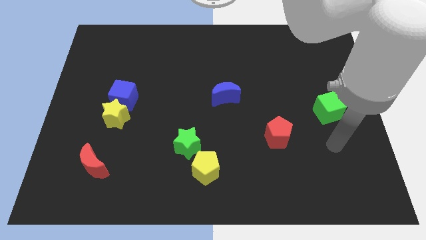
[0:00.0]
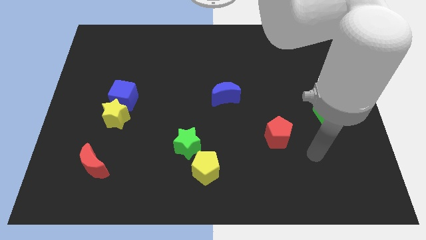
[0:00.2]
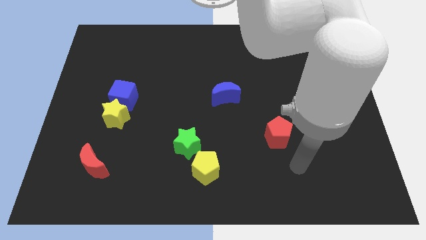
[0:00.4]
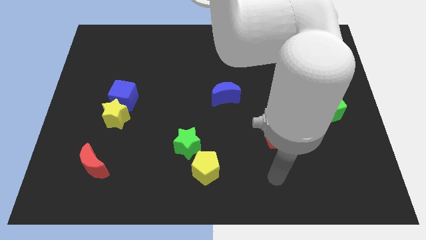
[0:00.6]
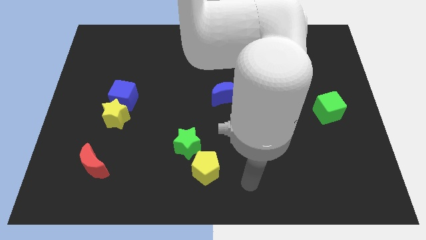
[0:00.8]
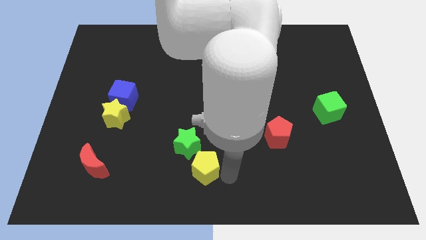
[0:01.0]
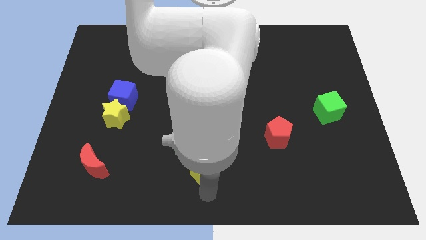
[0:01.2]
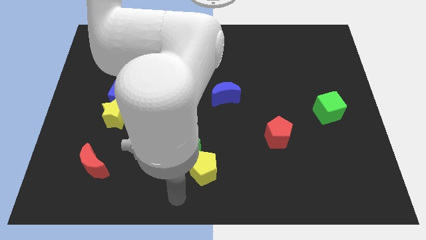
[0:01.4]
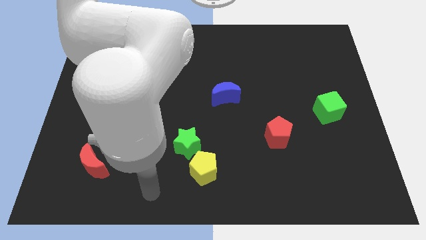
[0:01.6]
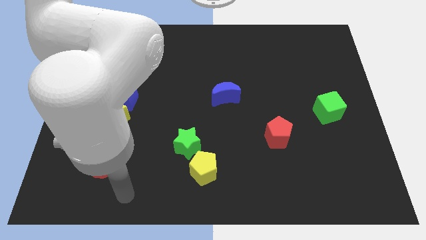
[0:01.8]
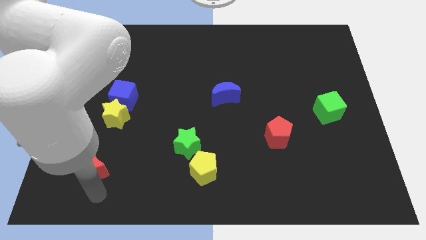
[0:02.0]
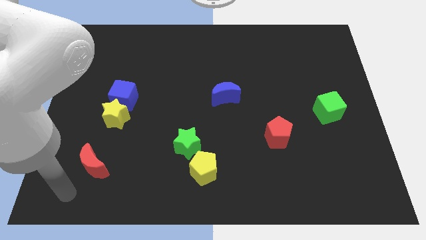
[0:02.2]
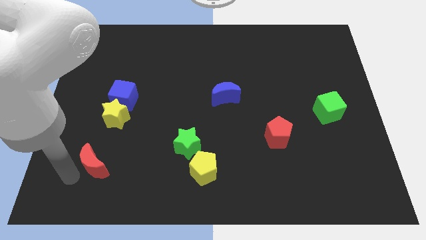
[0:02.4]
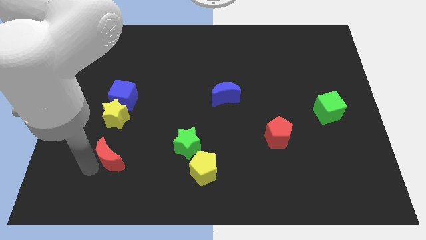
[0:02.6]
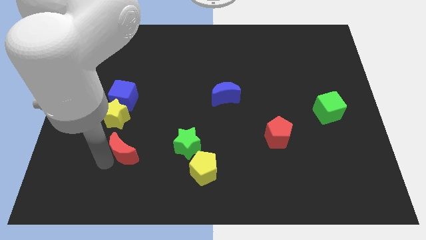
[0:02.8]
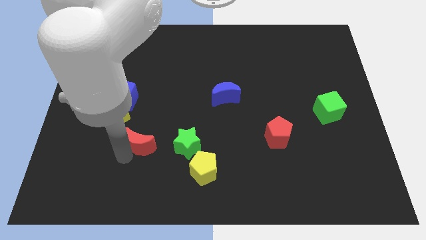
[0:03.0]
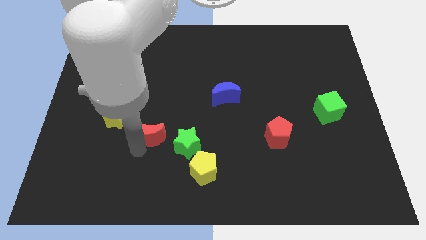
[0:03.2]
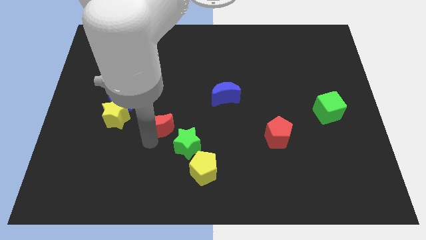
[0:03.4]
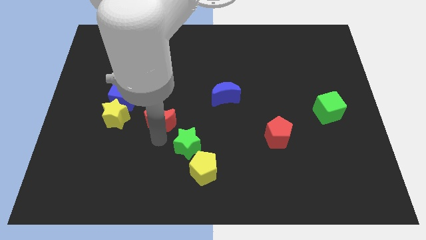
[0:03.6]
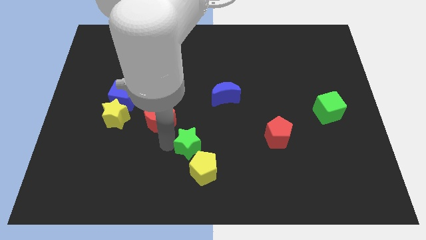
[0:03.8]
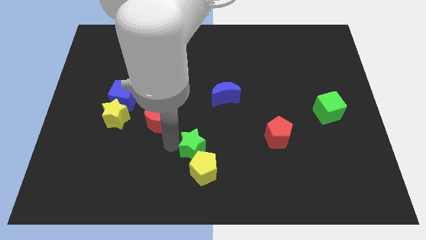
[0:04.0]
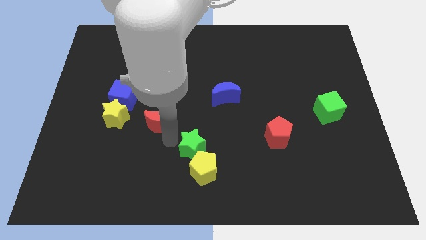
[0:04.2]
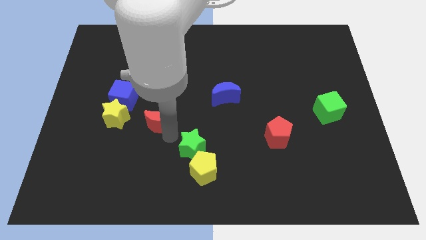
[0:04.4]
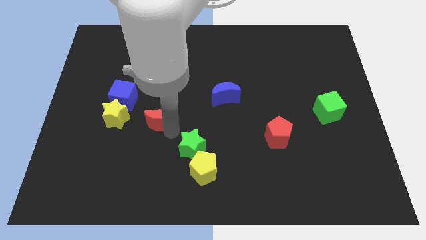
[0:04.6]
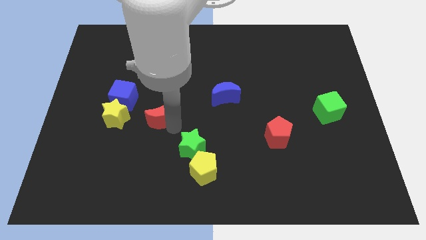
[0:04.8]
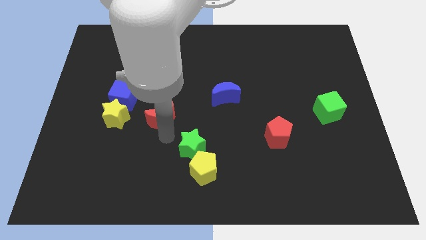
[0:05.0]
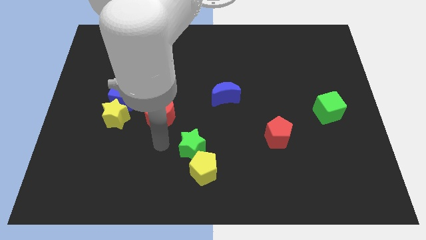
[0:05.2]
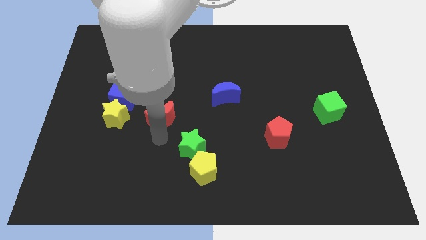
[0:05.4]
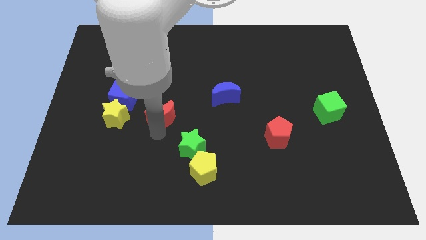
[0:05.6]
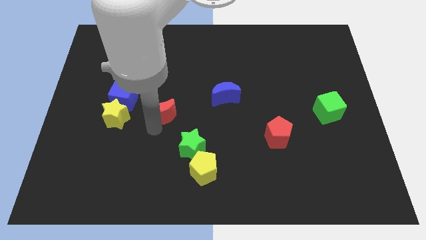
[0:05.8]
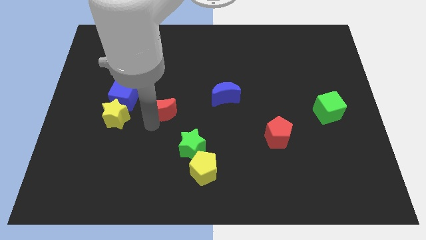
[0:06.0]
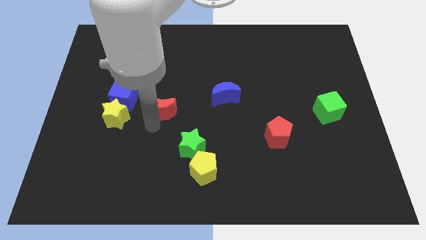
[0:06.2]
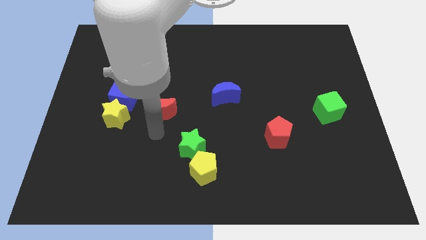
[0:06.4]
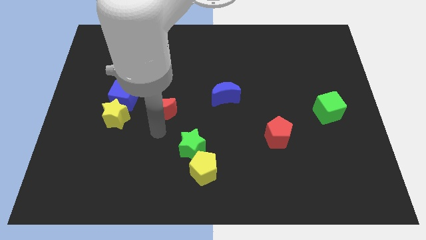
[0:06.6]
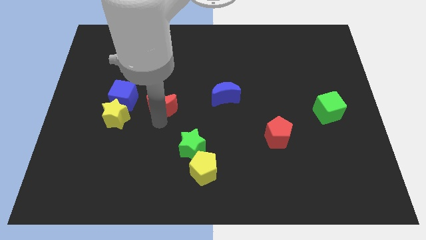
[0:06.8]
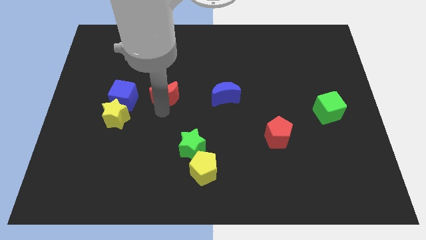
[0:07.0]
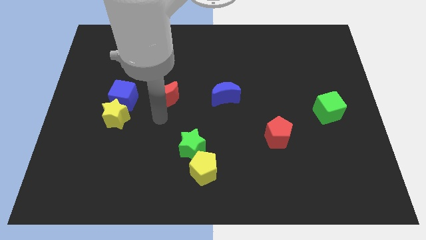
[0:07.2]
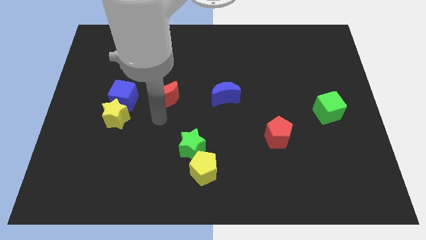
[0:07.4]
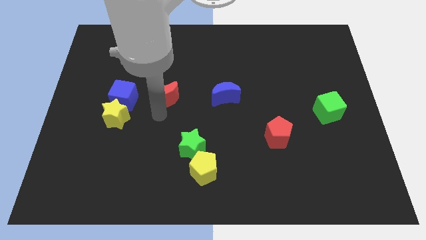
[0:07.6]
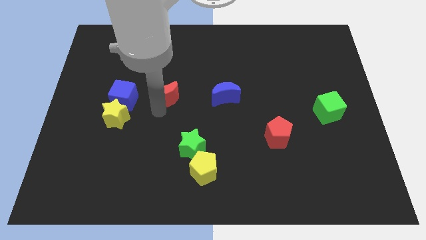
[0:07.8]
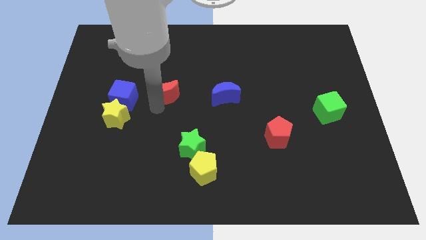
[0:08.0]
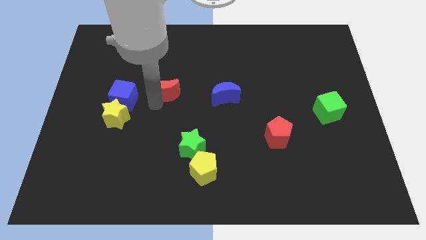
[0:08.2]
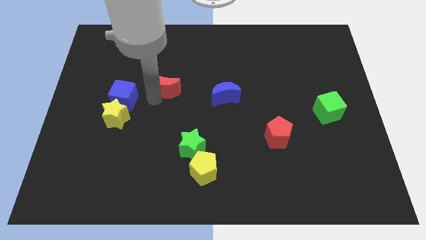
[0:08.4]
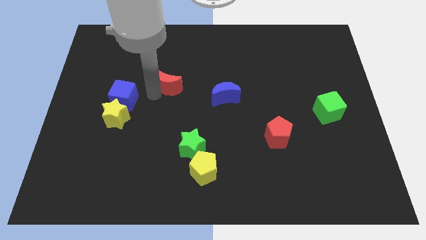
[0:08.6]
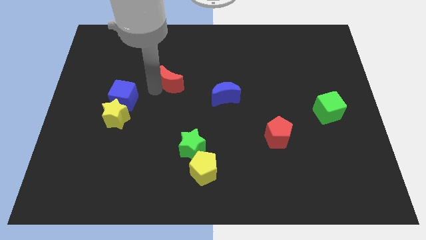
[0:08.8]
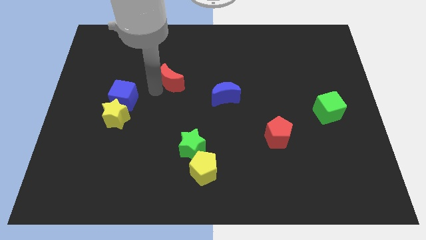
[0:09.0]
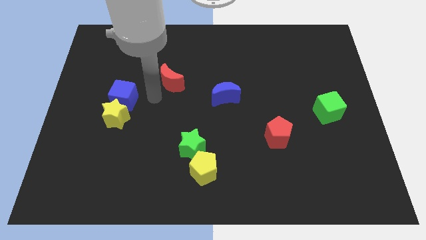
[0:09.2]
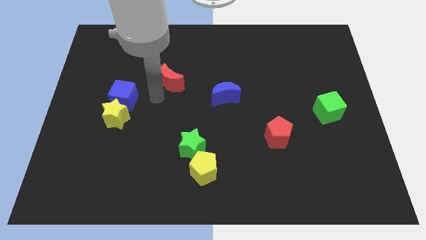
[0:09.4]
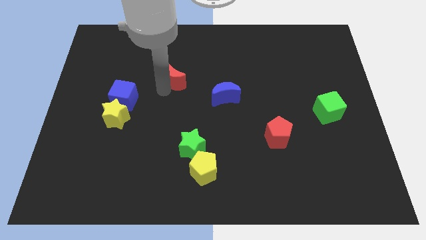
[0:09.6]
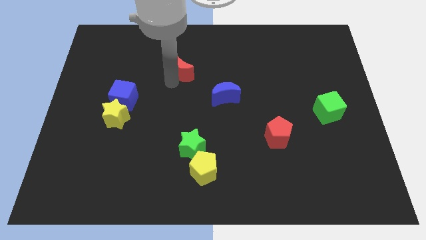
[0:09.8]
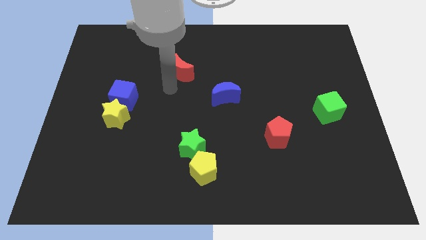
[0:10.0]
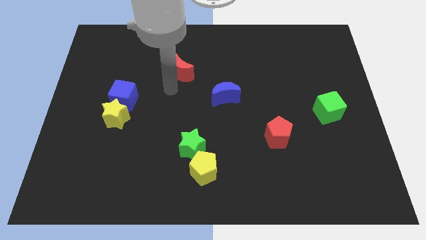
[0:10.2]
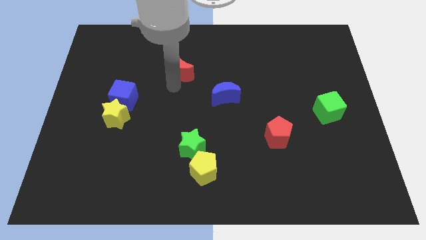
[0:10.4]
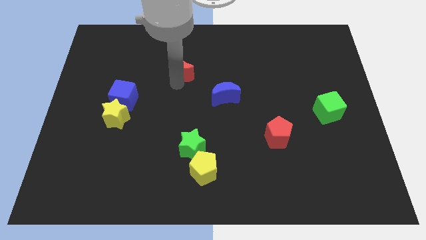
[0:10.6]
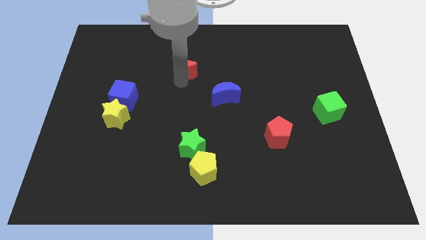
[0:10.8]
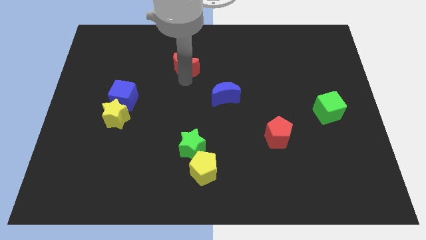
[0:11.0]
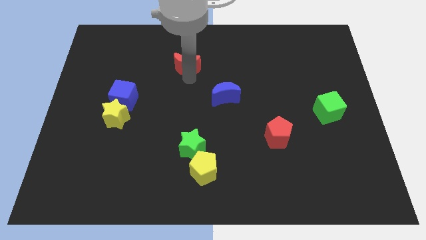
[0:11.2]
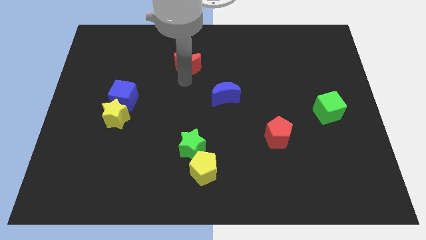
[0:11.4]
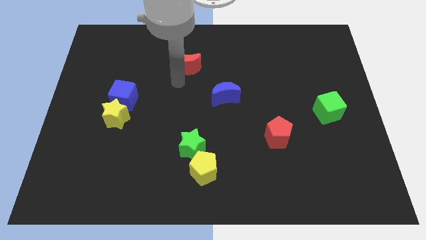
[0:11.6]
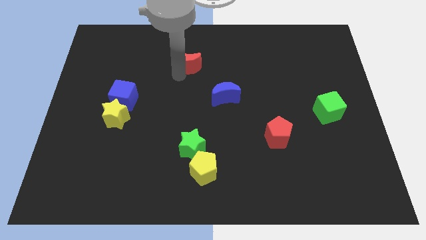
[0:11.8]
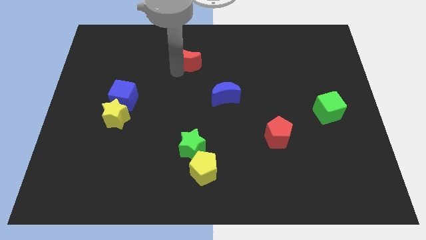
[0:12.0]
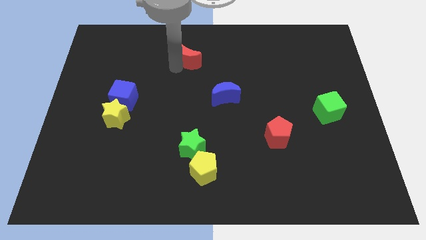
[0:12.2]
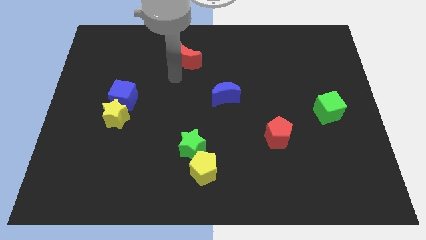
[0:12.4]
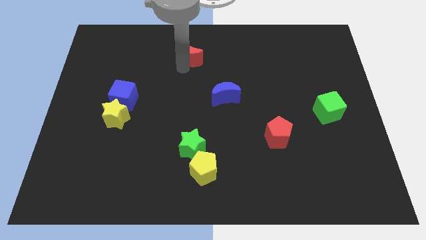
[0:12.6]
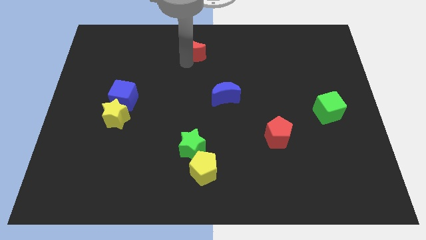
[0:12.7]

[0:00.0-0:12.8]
move the red moon to the towards your base
